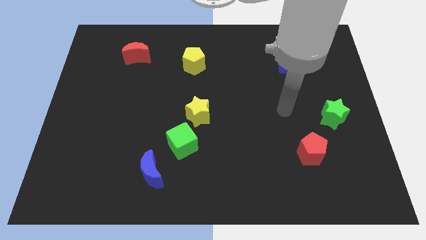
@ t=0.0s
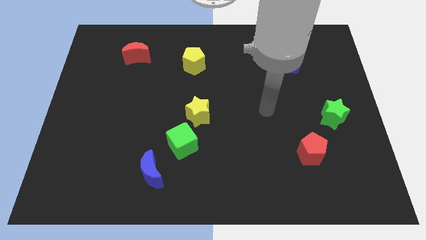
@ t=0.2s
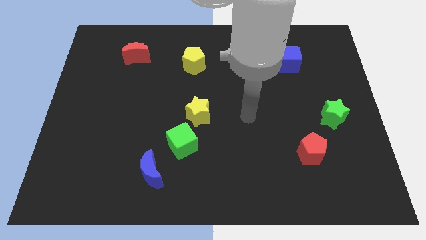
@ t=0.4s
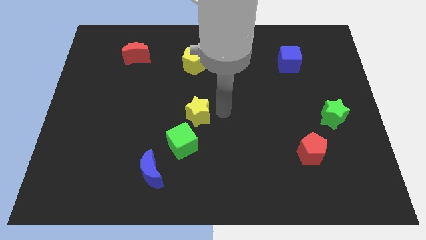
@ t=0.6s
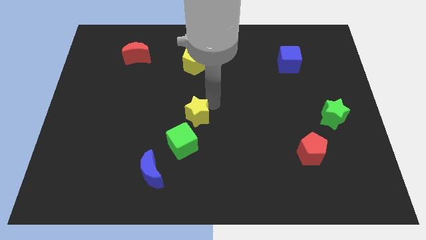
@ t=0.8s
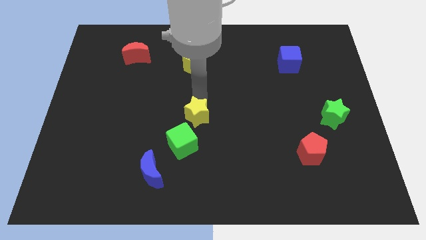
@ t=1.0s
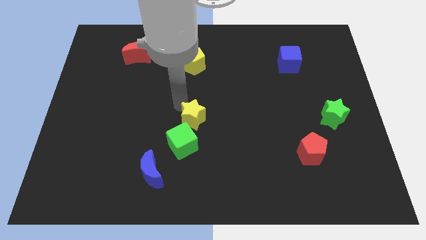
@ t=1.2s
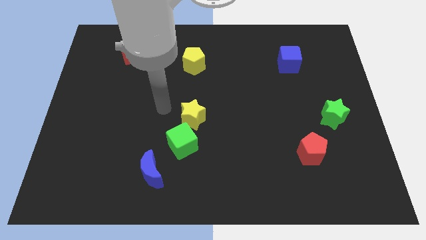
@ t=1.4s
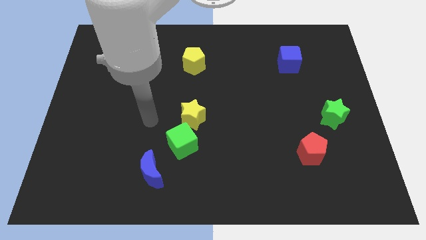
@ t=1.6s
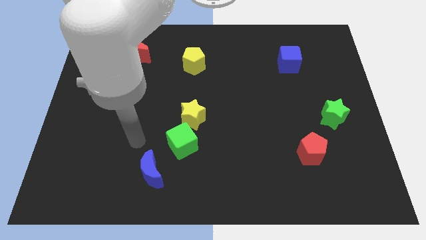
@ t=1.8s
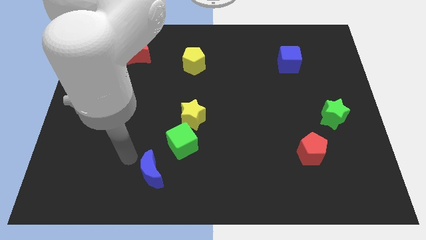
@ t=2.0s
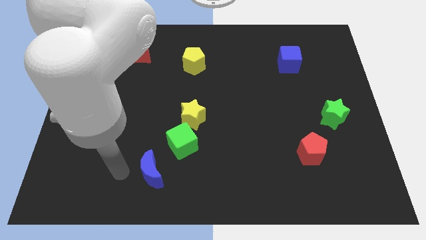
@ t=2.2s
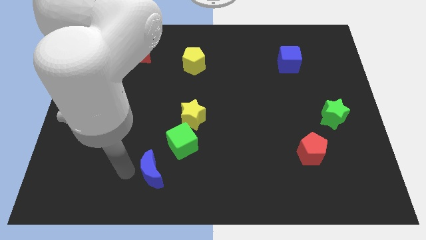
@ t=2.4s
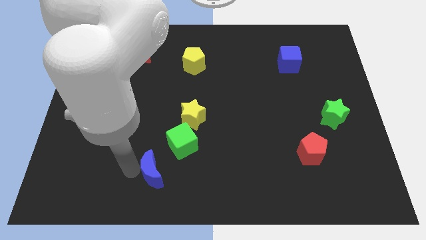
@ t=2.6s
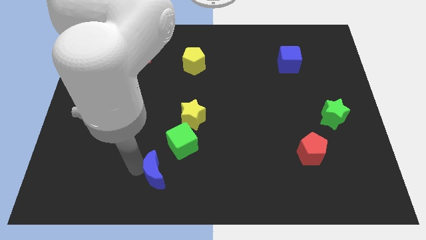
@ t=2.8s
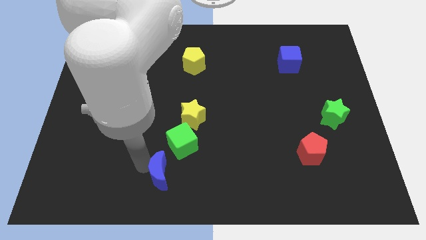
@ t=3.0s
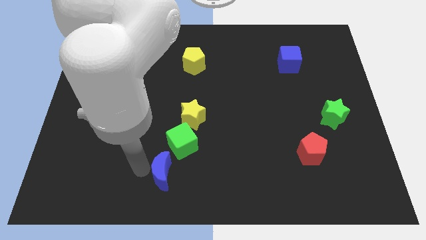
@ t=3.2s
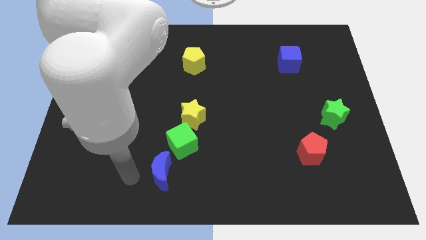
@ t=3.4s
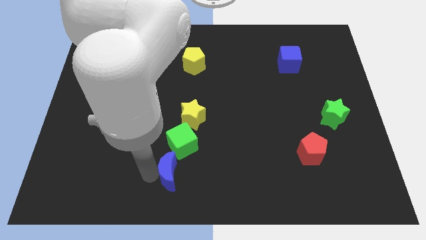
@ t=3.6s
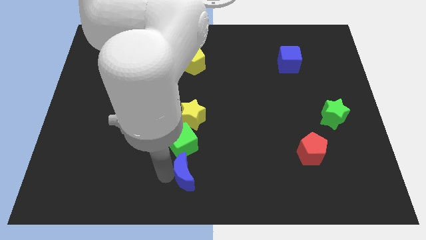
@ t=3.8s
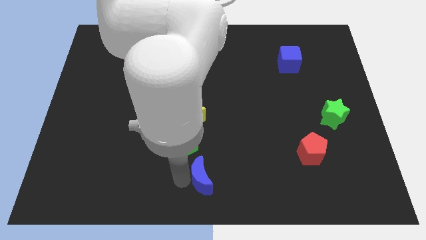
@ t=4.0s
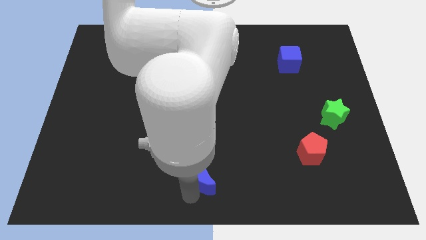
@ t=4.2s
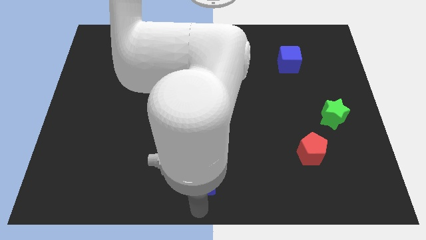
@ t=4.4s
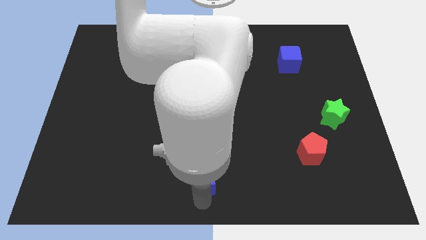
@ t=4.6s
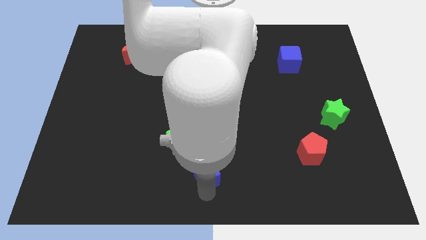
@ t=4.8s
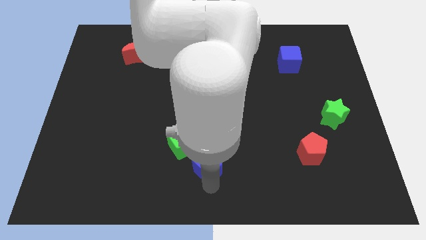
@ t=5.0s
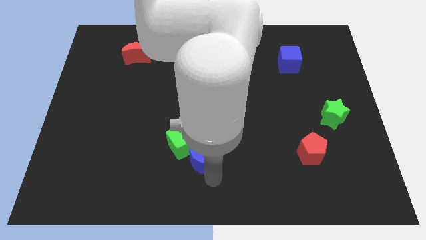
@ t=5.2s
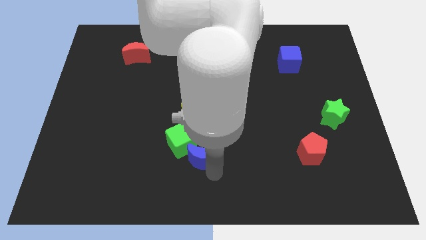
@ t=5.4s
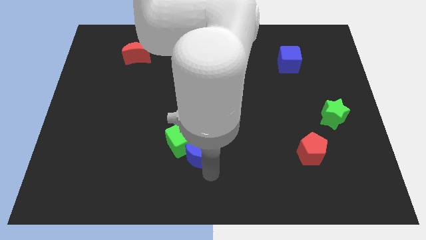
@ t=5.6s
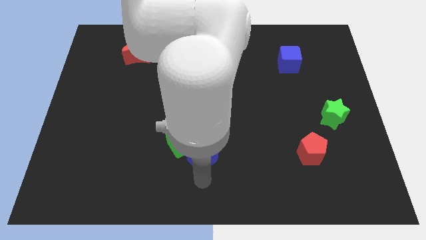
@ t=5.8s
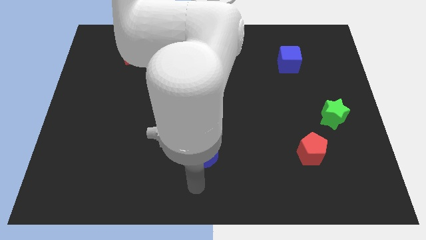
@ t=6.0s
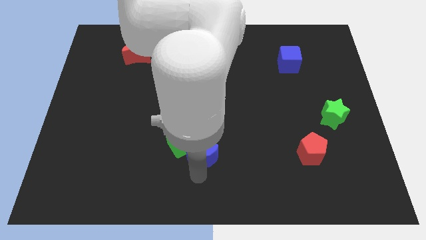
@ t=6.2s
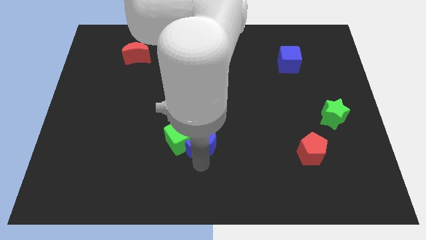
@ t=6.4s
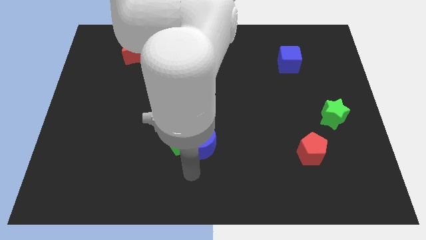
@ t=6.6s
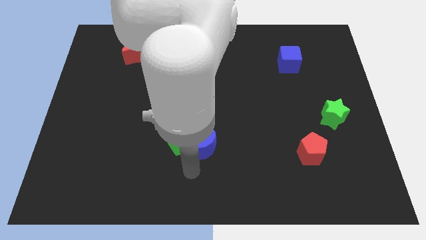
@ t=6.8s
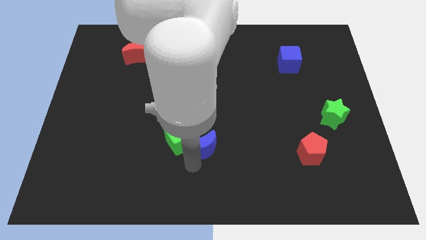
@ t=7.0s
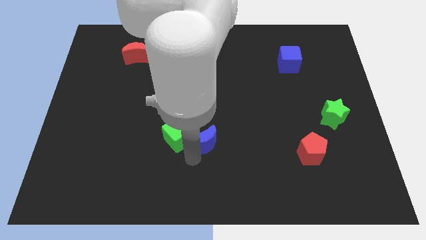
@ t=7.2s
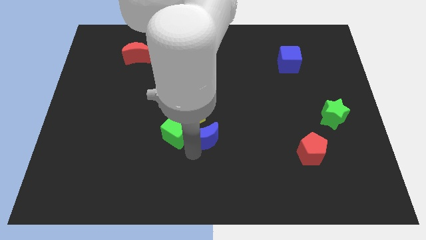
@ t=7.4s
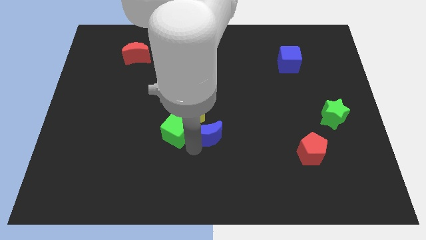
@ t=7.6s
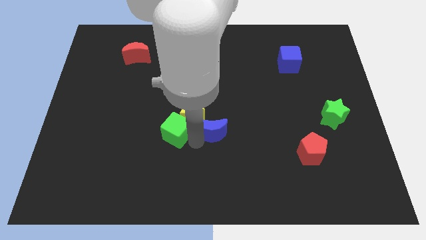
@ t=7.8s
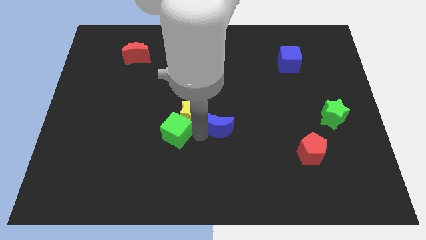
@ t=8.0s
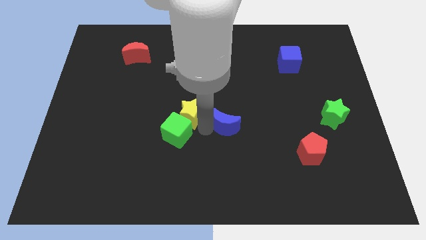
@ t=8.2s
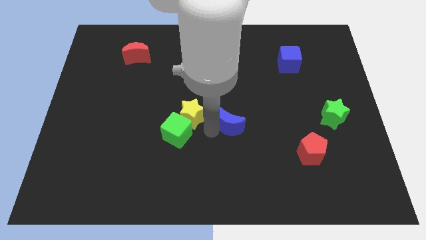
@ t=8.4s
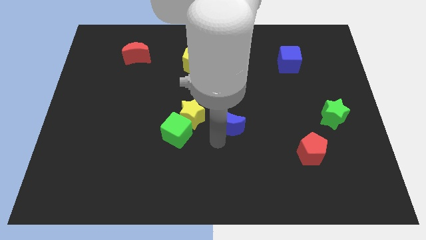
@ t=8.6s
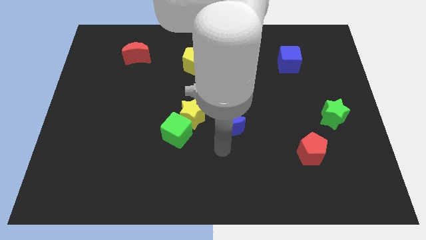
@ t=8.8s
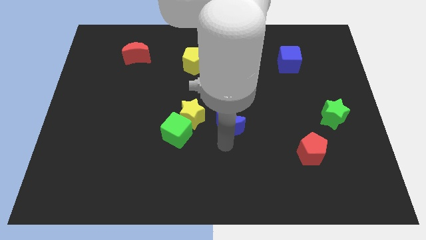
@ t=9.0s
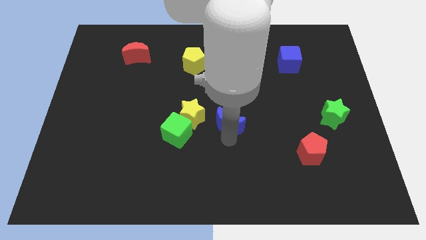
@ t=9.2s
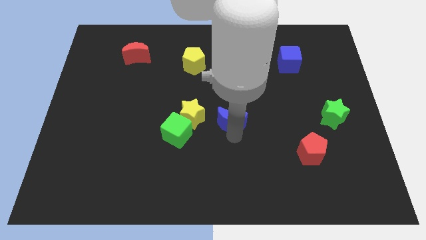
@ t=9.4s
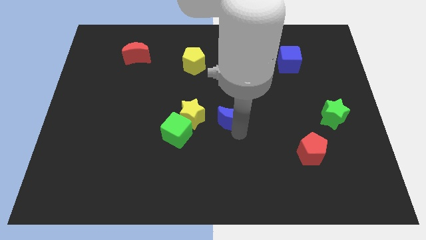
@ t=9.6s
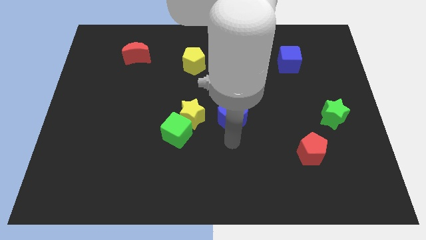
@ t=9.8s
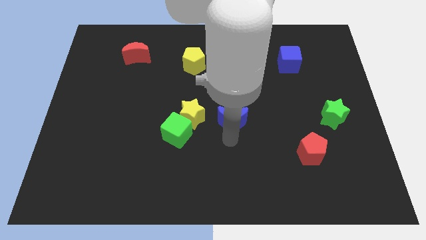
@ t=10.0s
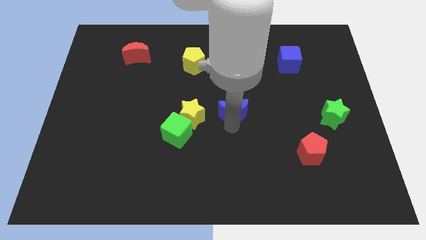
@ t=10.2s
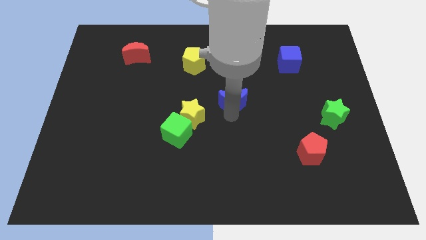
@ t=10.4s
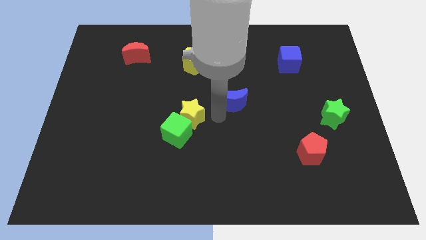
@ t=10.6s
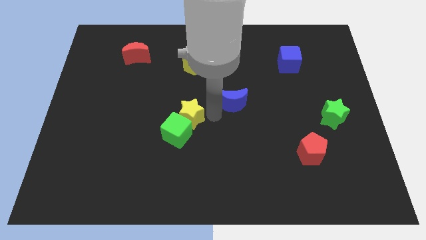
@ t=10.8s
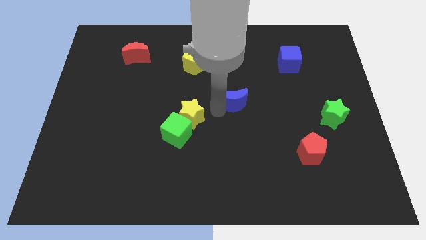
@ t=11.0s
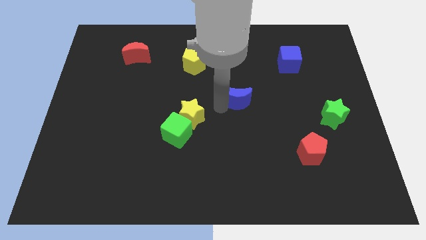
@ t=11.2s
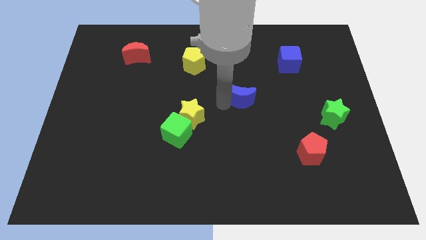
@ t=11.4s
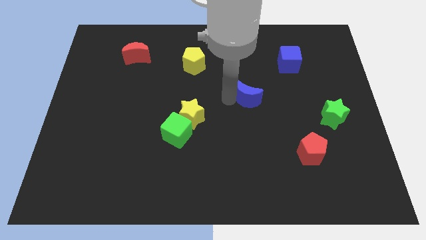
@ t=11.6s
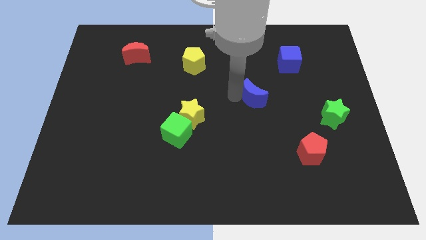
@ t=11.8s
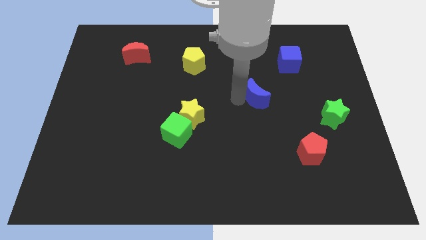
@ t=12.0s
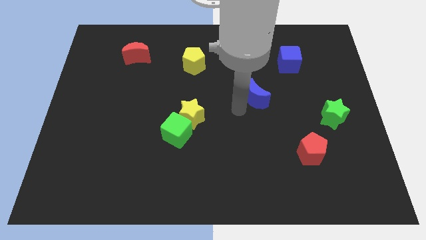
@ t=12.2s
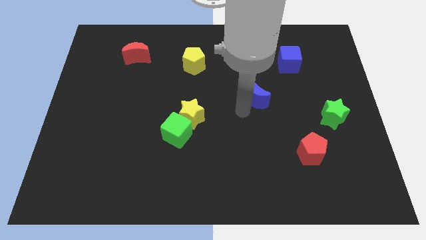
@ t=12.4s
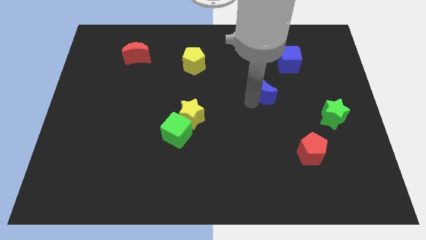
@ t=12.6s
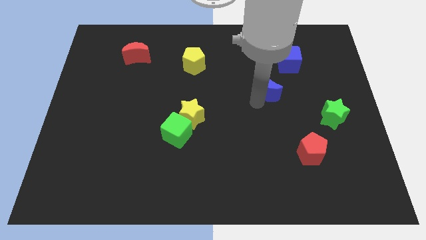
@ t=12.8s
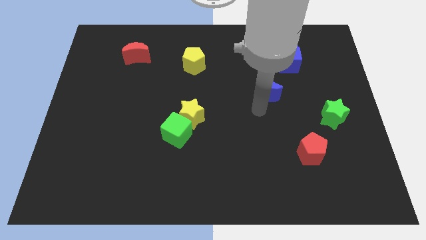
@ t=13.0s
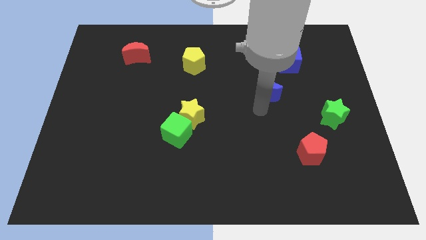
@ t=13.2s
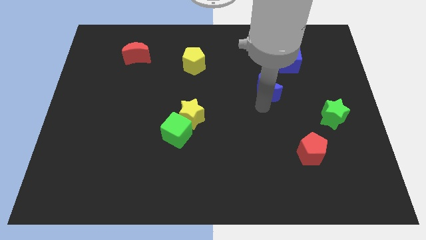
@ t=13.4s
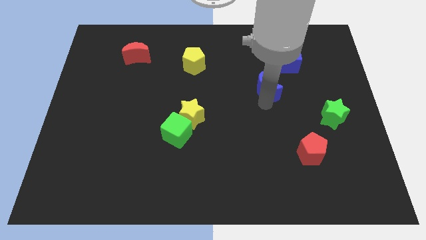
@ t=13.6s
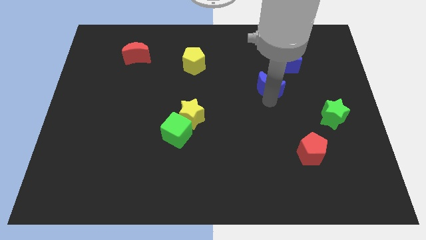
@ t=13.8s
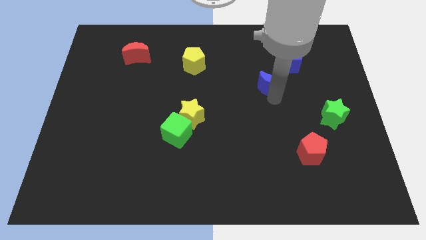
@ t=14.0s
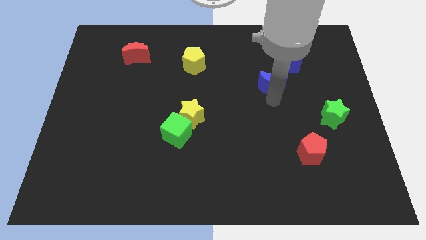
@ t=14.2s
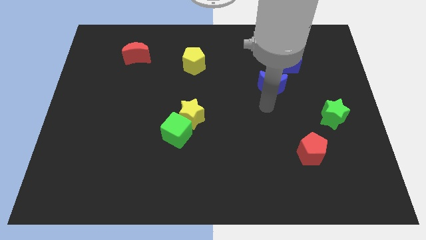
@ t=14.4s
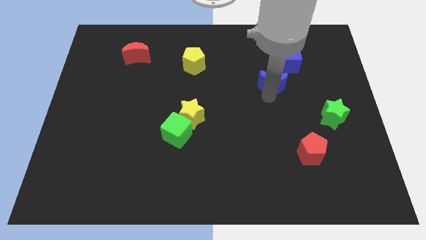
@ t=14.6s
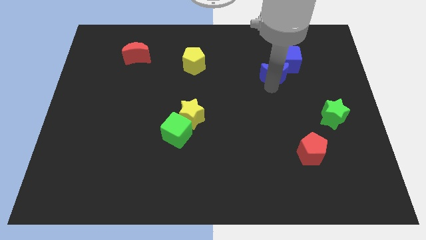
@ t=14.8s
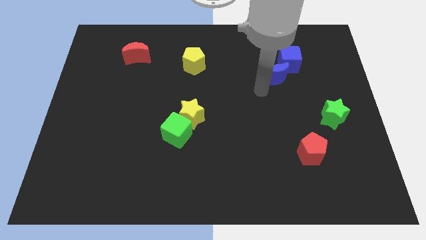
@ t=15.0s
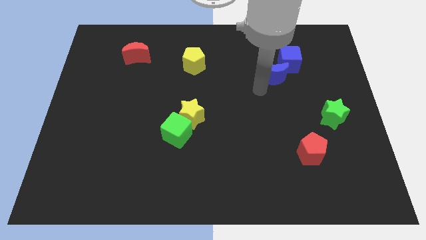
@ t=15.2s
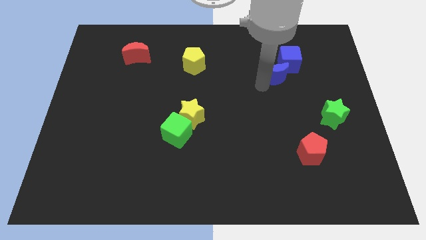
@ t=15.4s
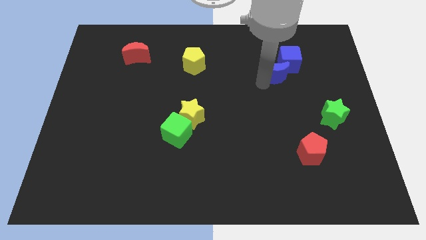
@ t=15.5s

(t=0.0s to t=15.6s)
push the blue moon to the blue cube
